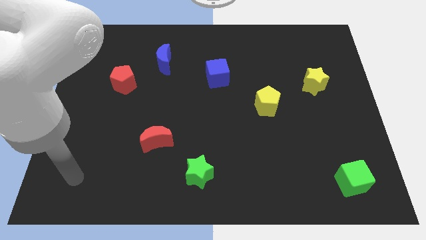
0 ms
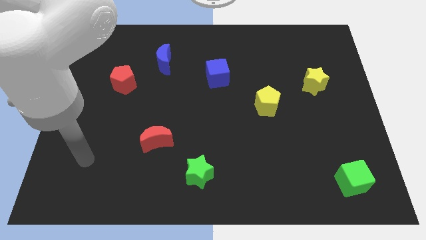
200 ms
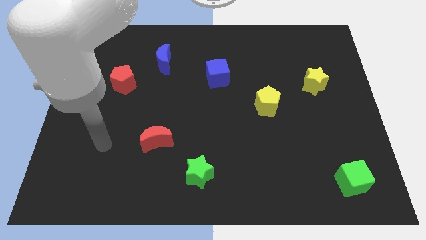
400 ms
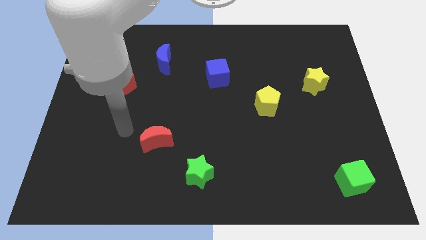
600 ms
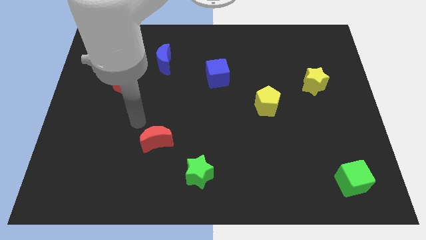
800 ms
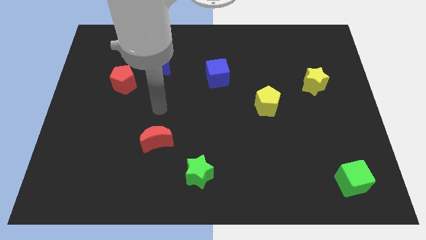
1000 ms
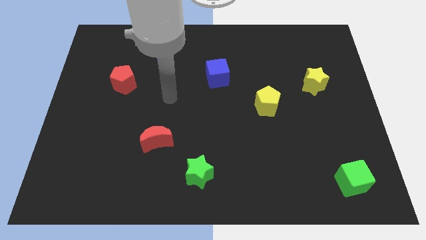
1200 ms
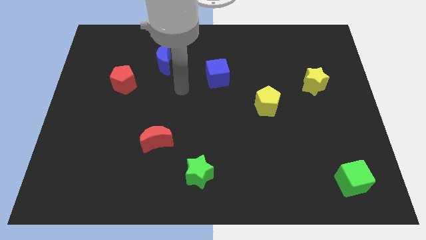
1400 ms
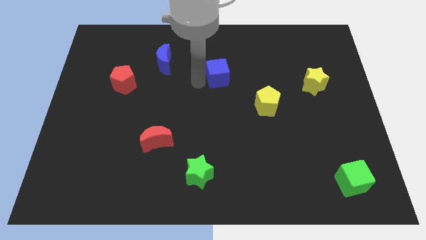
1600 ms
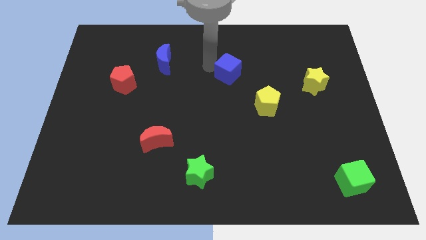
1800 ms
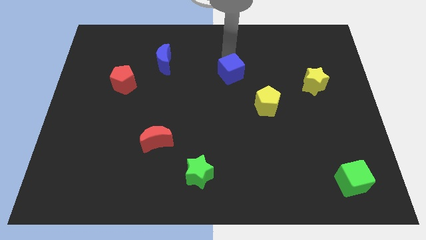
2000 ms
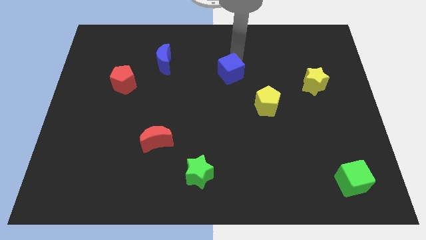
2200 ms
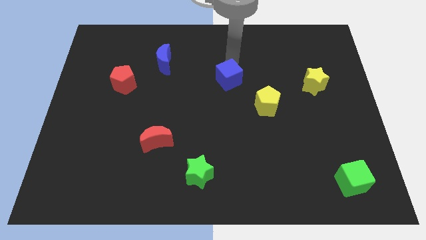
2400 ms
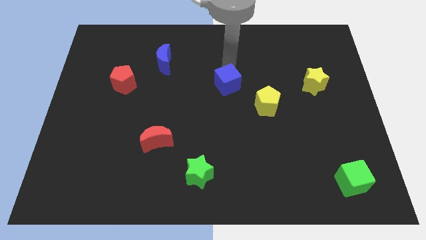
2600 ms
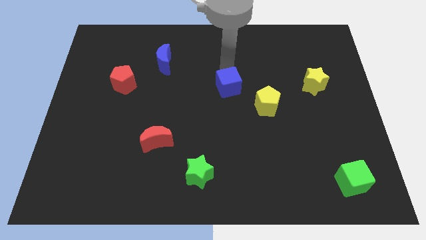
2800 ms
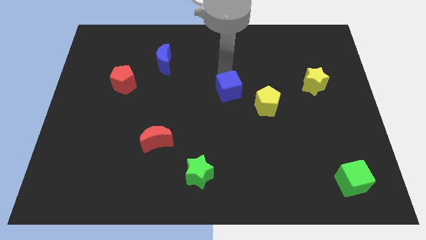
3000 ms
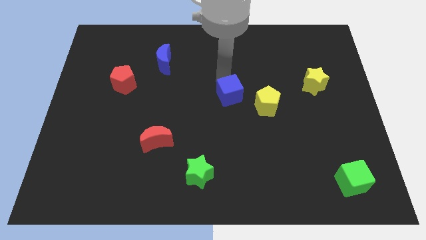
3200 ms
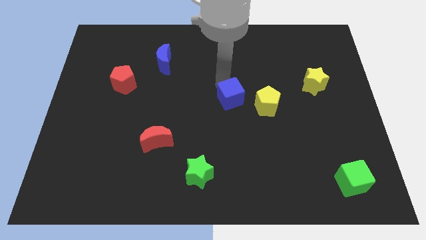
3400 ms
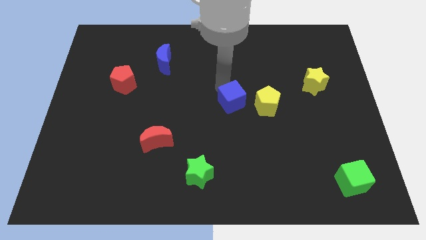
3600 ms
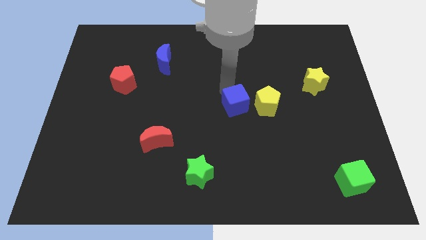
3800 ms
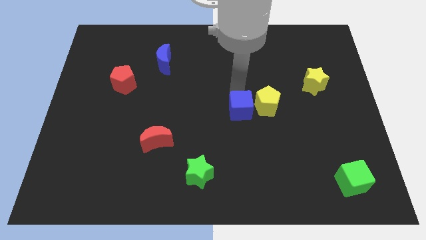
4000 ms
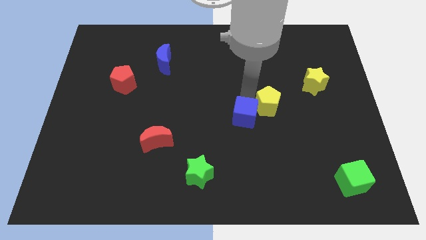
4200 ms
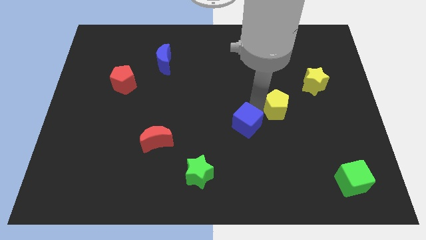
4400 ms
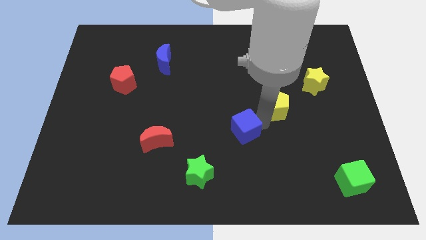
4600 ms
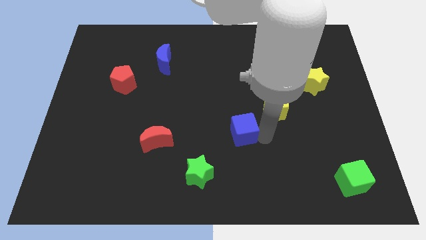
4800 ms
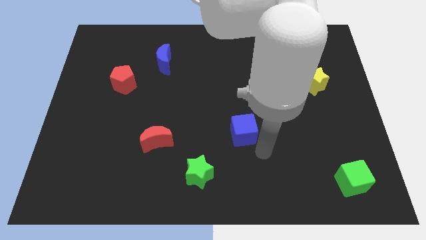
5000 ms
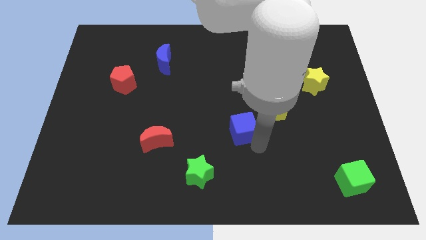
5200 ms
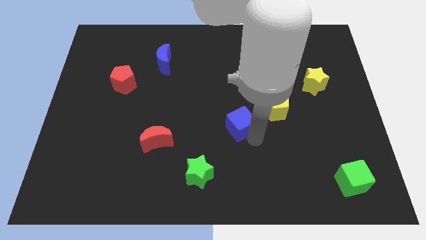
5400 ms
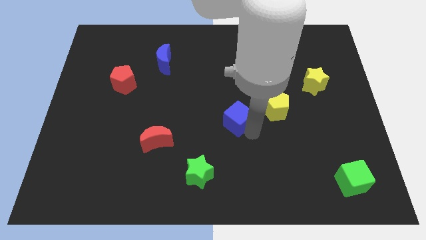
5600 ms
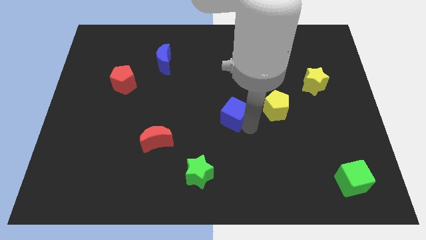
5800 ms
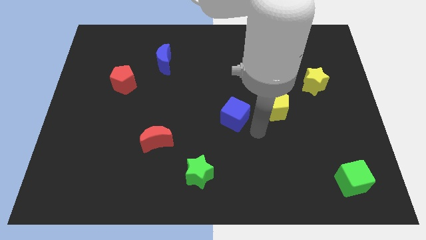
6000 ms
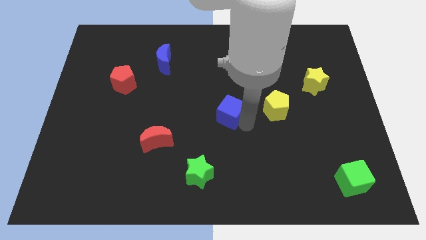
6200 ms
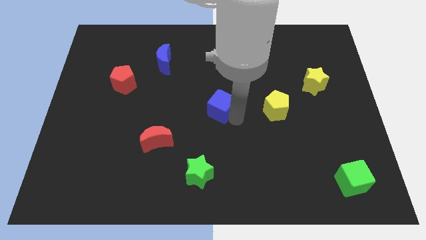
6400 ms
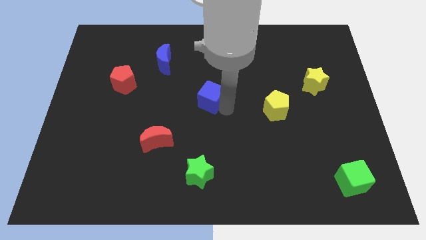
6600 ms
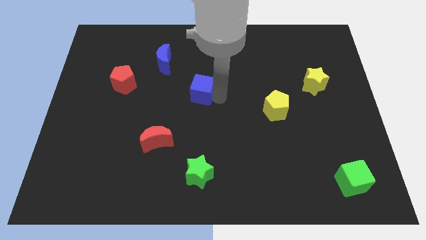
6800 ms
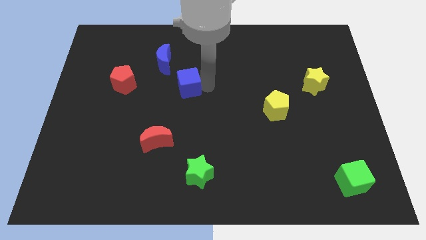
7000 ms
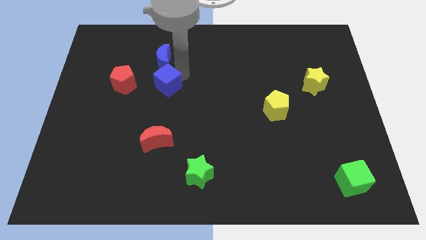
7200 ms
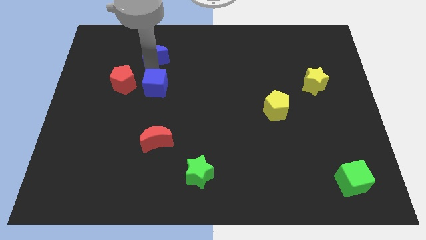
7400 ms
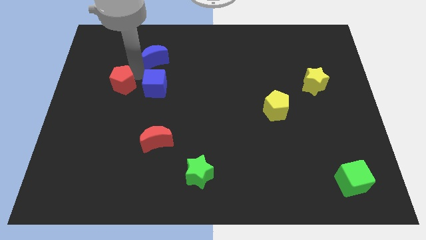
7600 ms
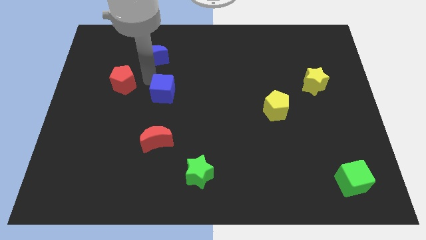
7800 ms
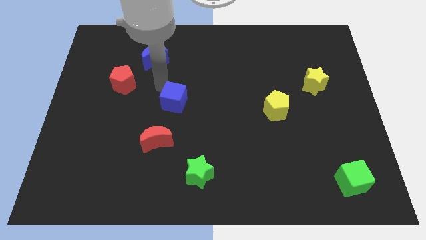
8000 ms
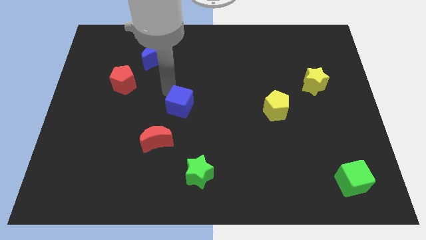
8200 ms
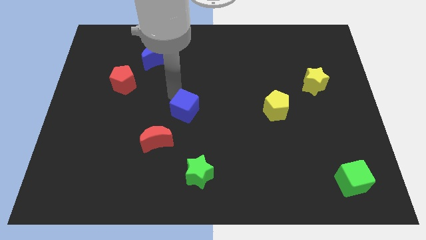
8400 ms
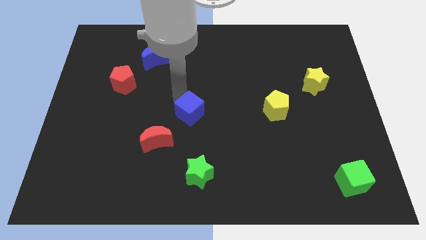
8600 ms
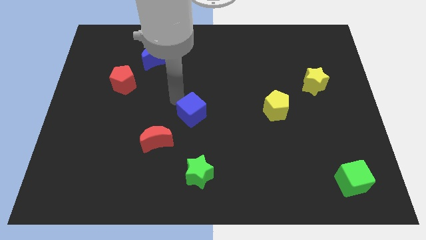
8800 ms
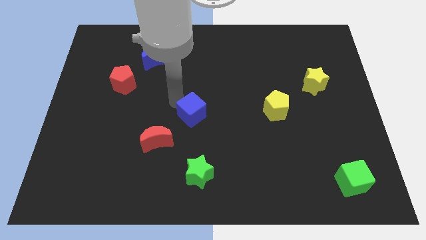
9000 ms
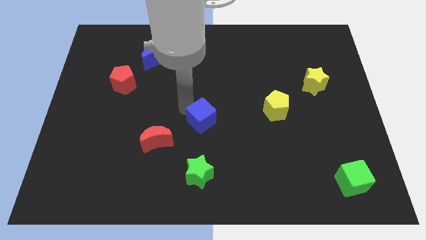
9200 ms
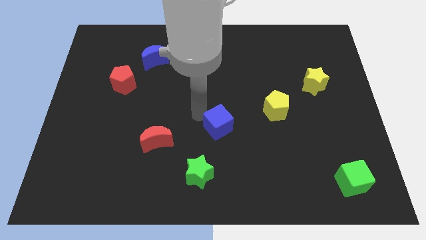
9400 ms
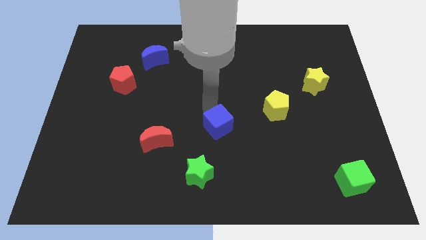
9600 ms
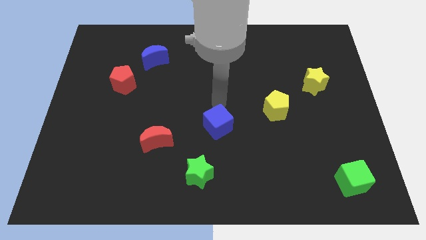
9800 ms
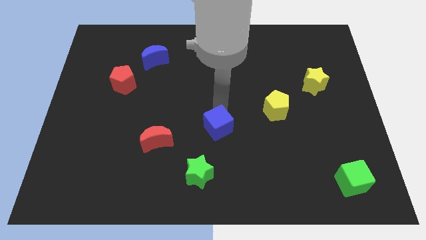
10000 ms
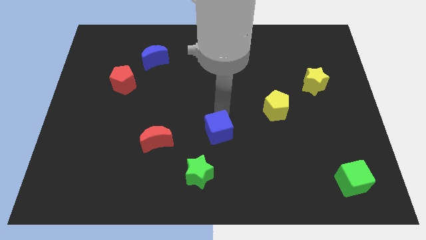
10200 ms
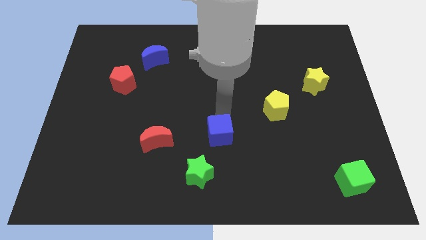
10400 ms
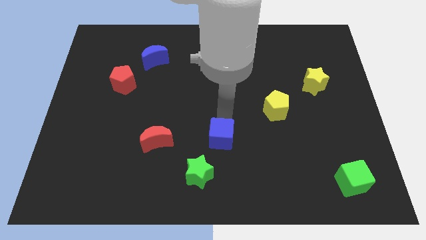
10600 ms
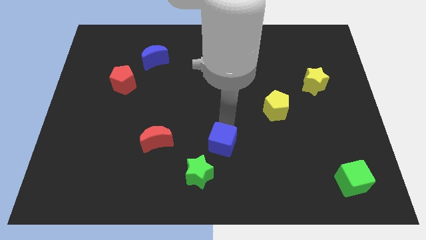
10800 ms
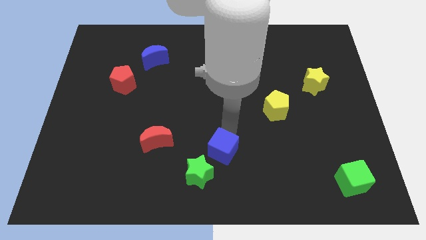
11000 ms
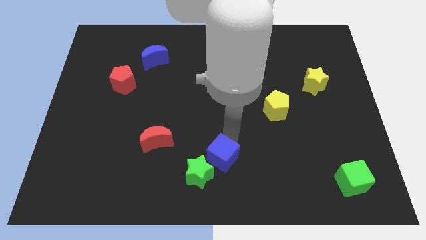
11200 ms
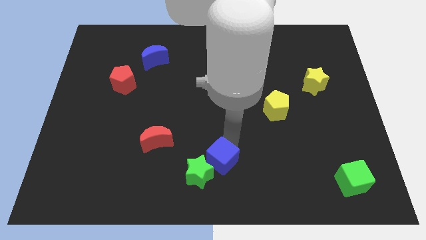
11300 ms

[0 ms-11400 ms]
push the blue cube close to the green star

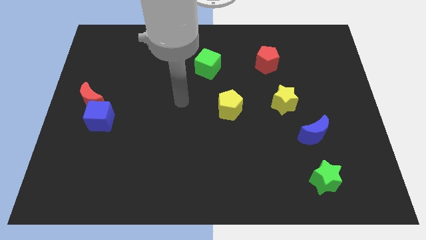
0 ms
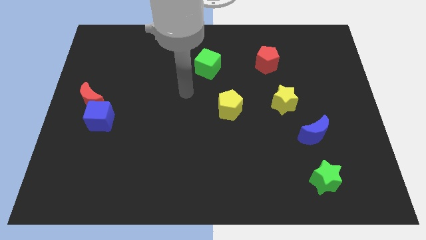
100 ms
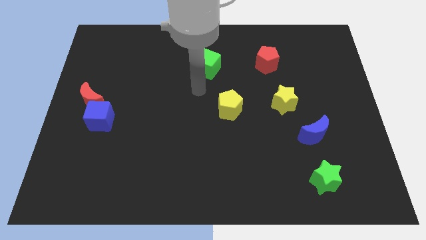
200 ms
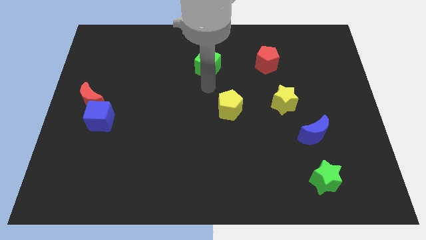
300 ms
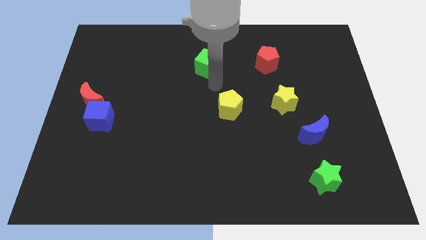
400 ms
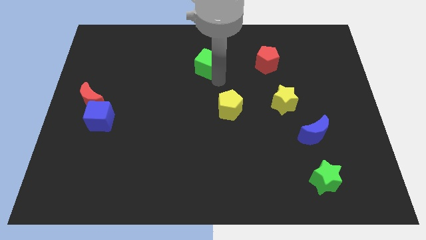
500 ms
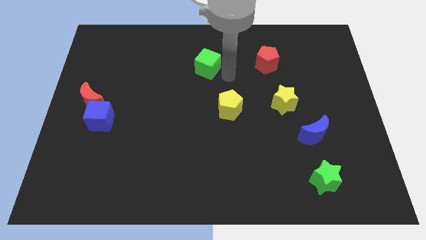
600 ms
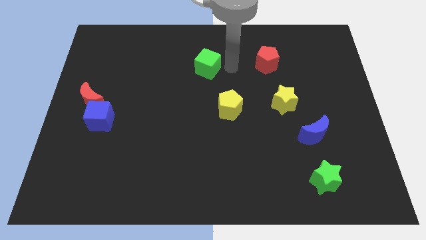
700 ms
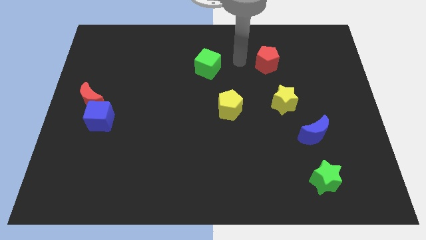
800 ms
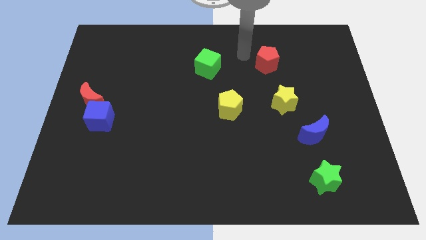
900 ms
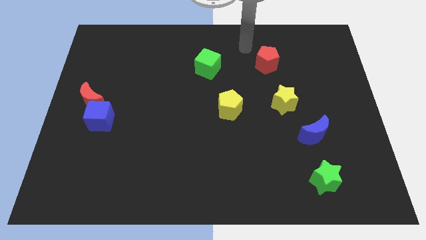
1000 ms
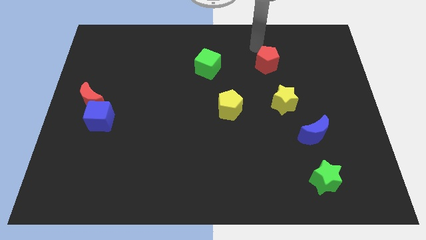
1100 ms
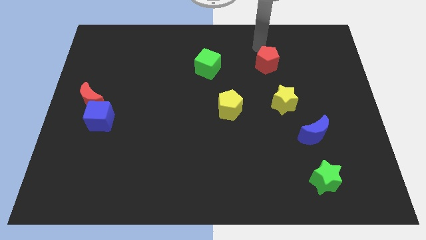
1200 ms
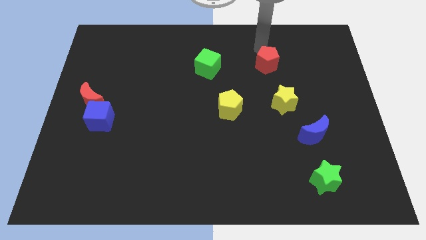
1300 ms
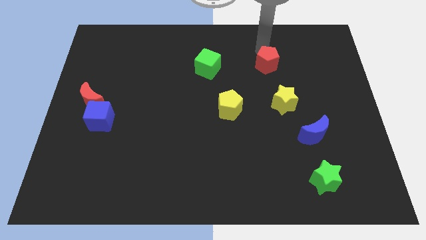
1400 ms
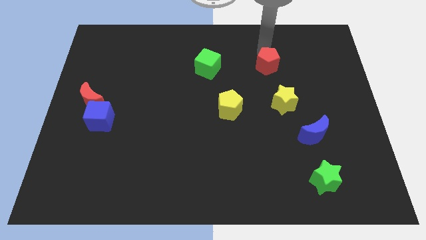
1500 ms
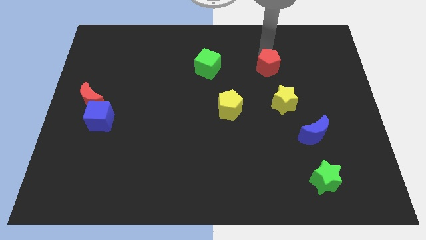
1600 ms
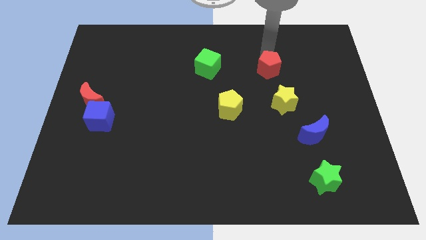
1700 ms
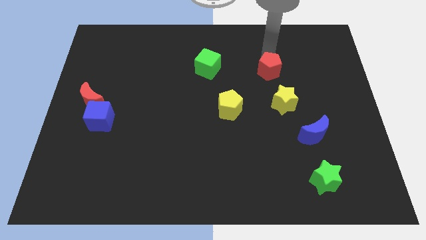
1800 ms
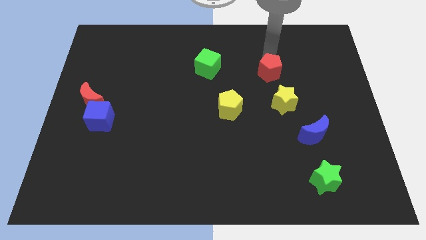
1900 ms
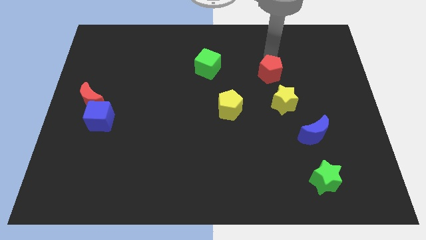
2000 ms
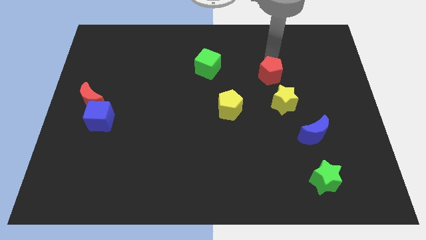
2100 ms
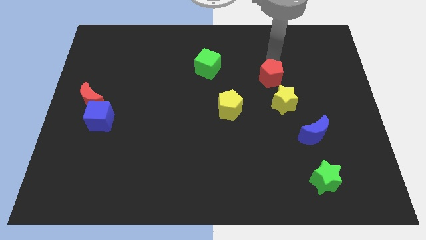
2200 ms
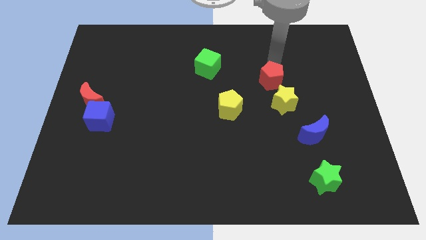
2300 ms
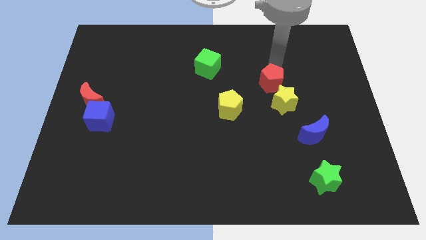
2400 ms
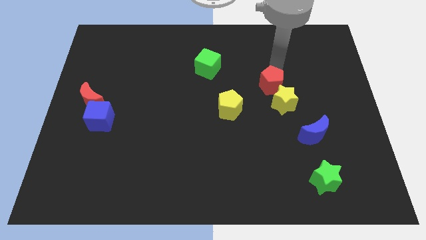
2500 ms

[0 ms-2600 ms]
slide the red pentagon to the yellow star
